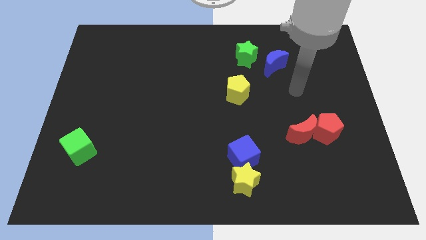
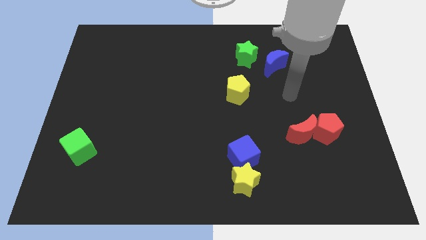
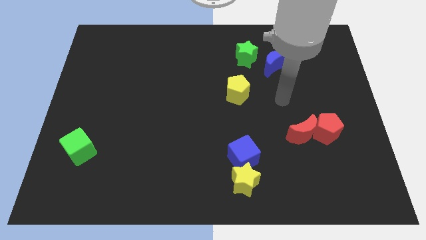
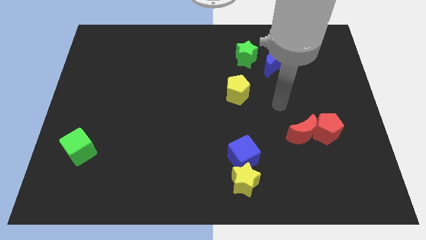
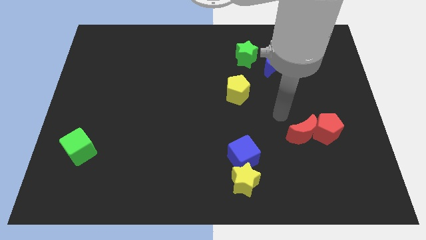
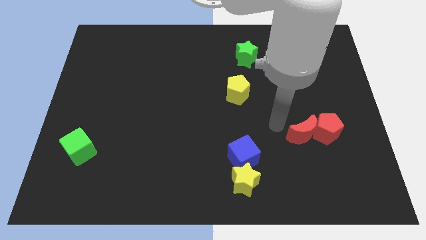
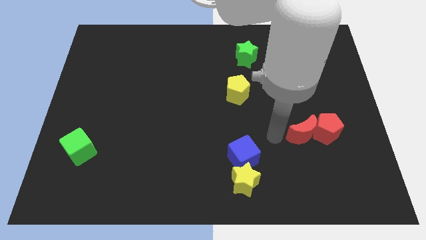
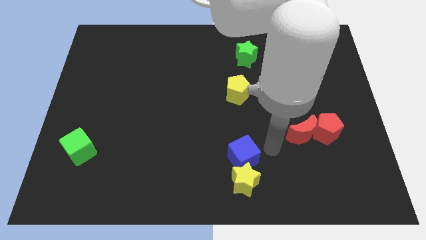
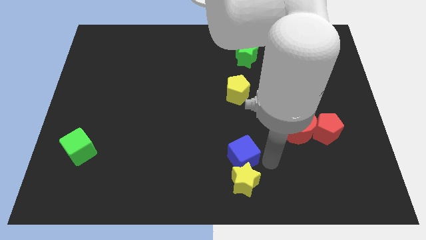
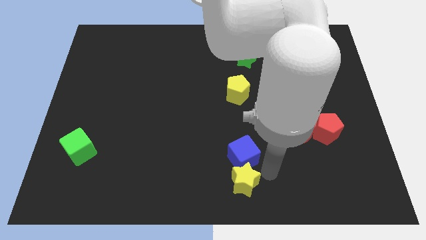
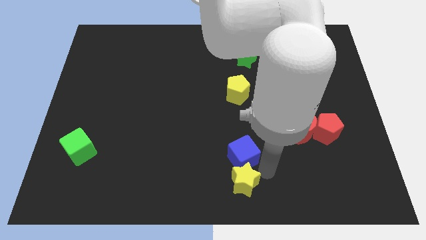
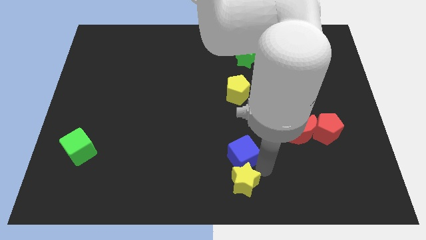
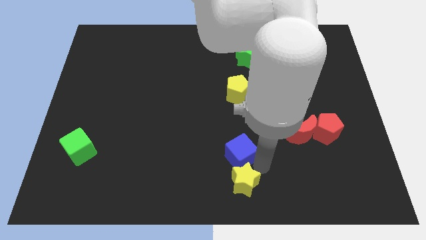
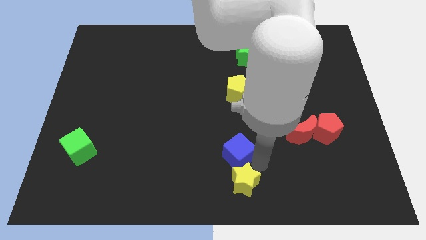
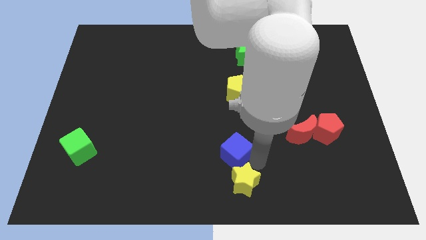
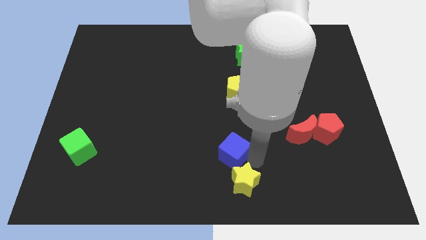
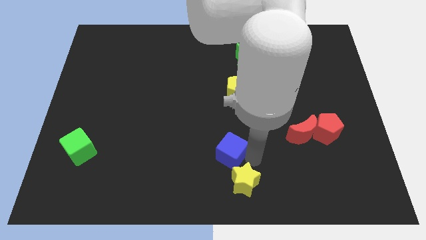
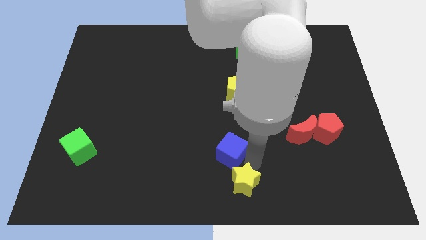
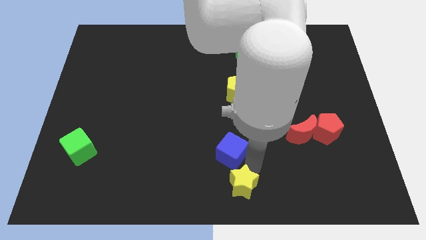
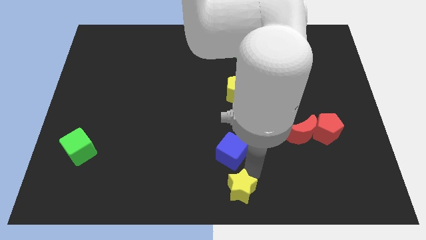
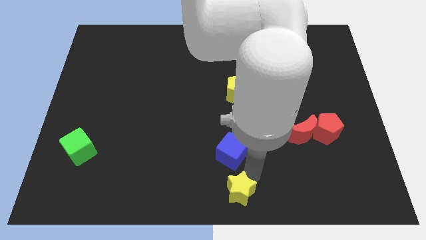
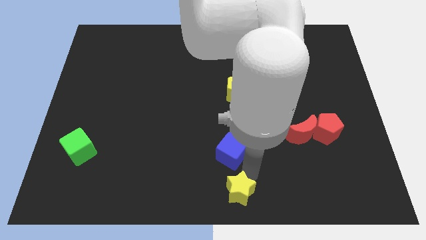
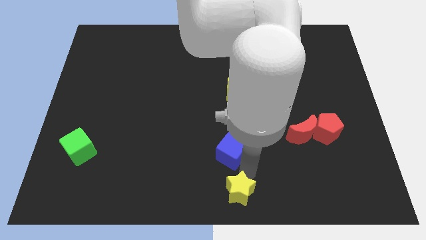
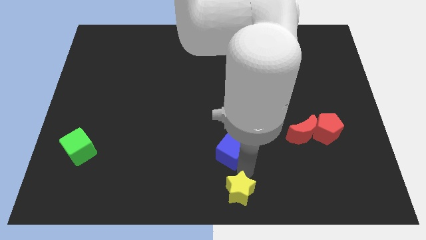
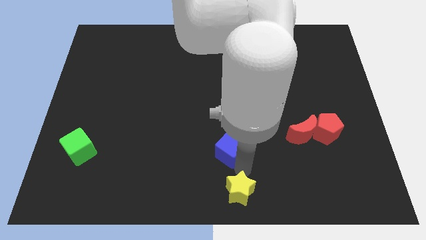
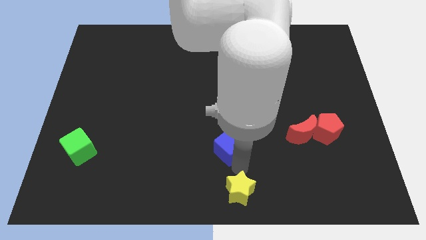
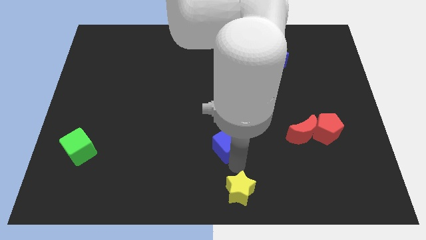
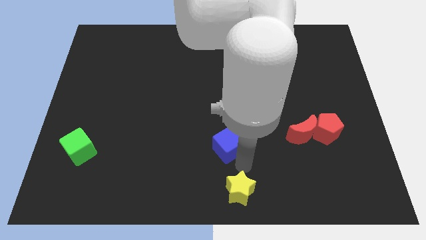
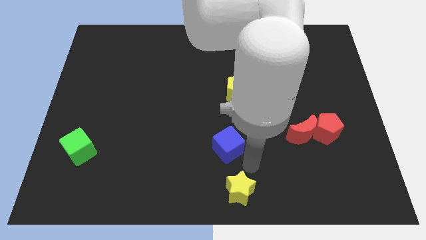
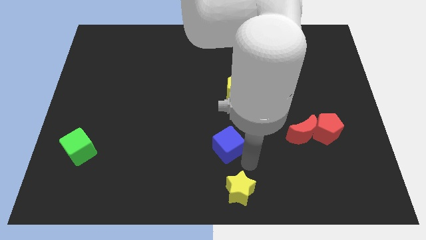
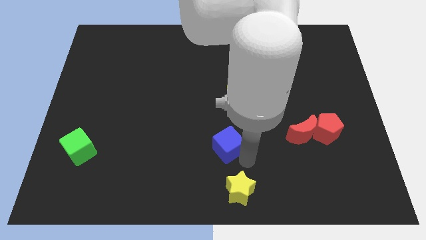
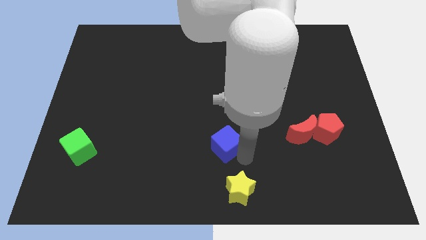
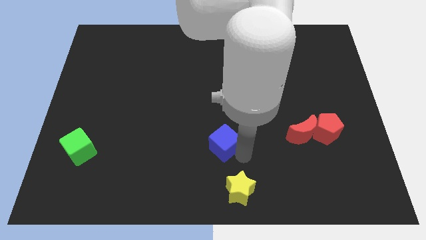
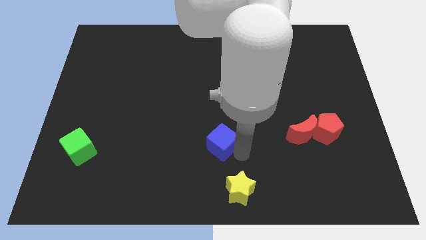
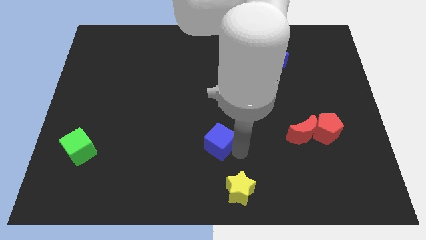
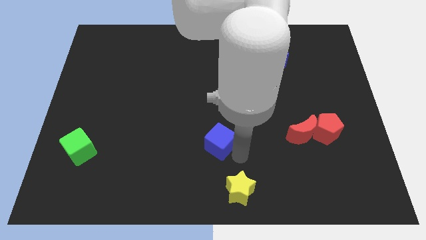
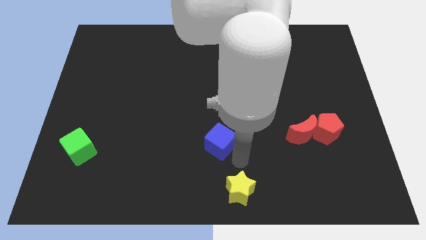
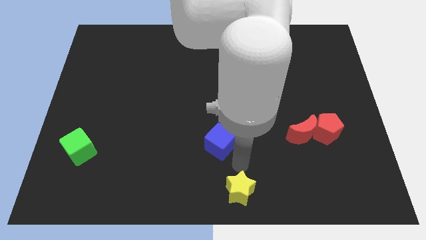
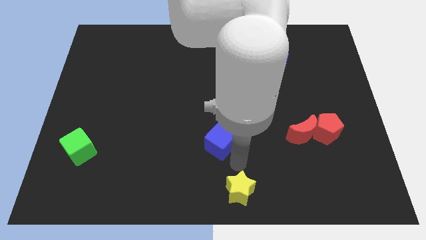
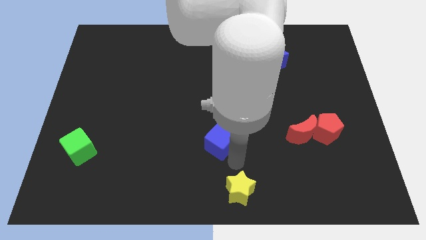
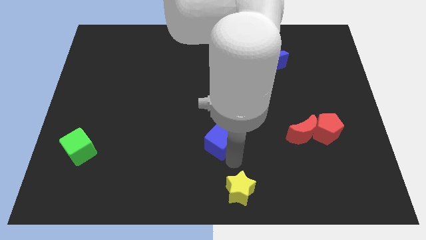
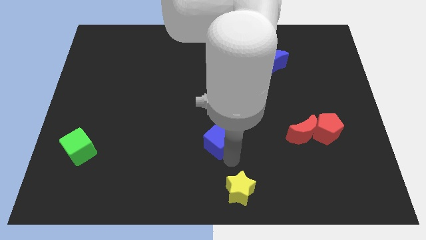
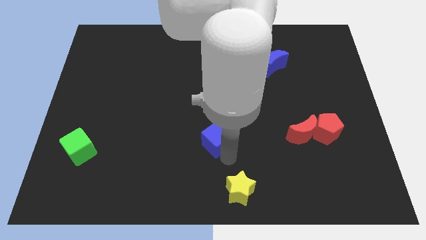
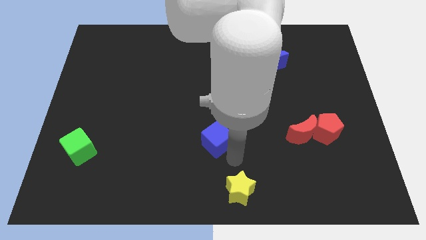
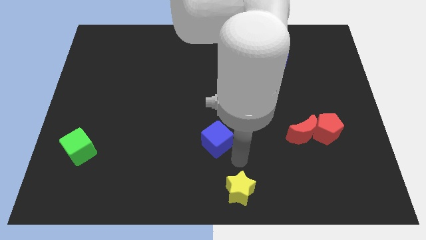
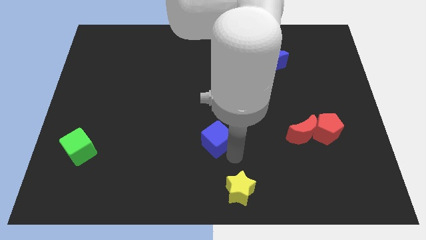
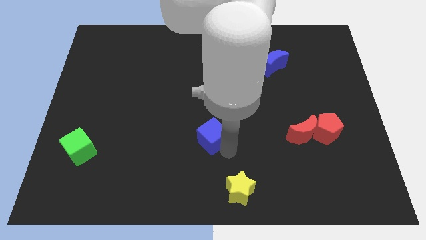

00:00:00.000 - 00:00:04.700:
slightly push the blue cube upwards and then to the left

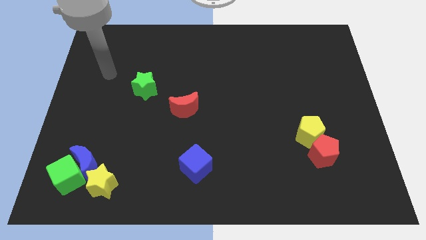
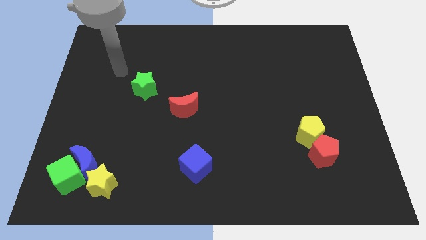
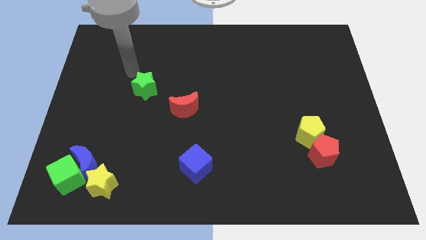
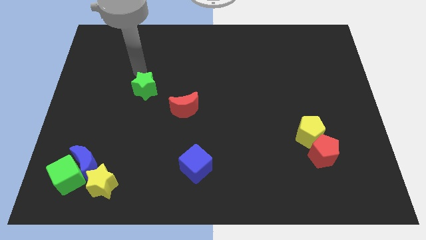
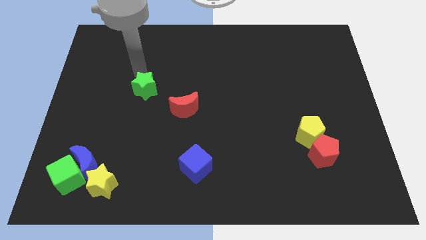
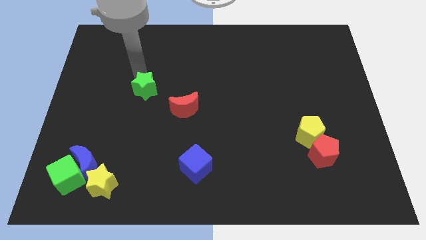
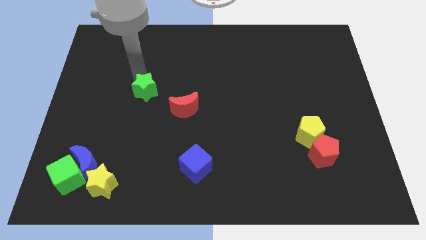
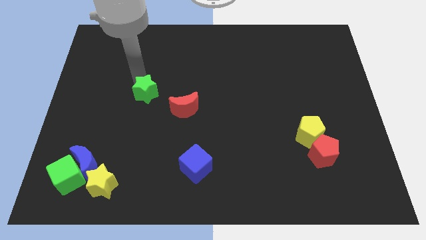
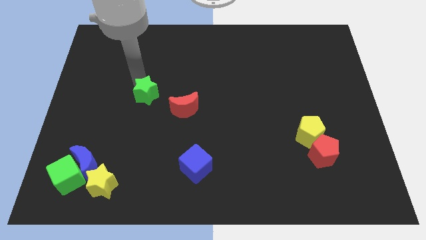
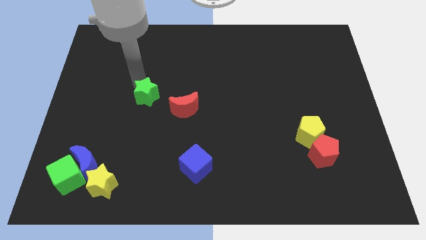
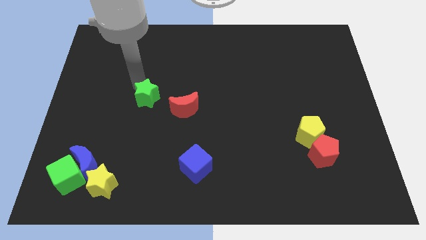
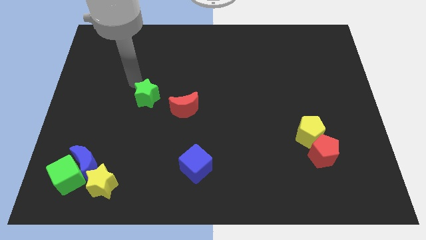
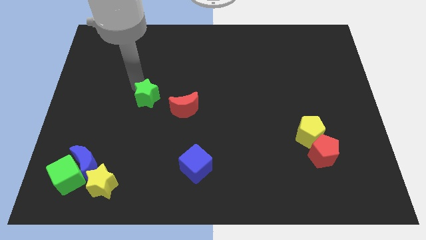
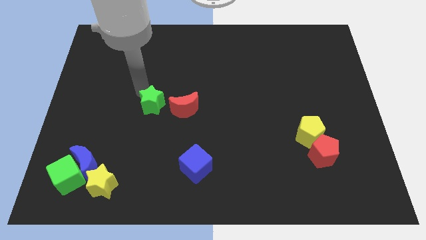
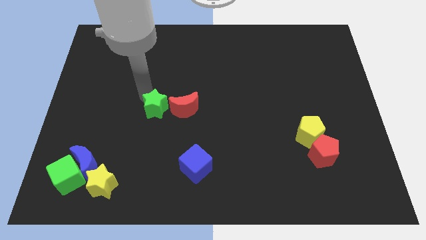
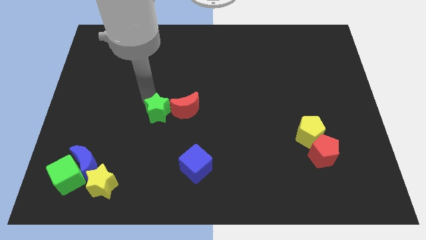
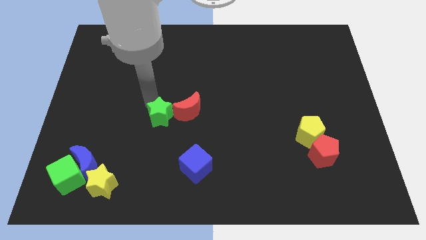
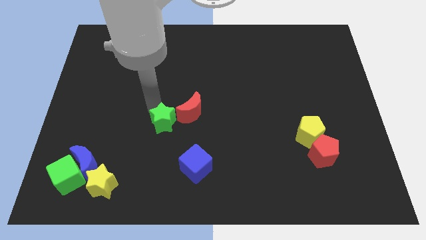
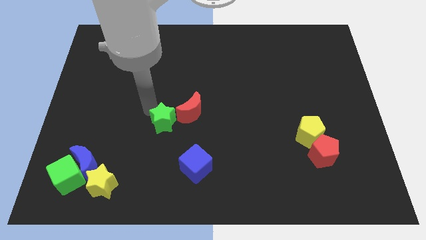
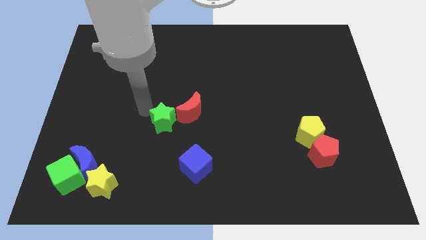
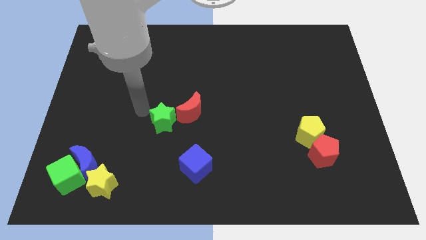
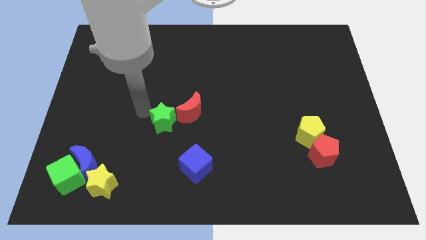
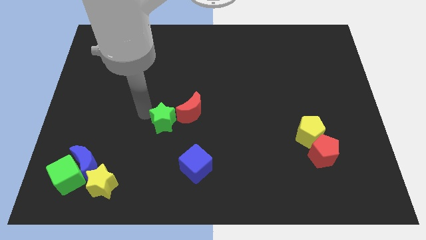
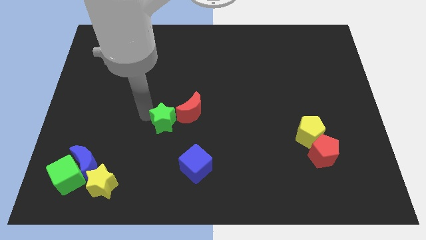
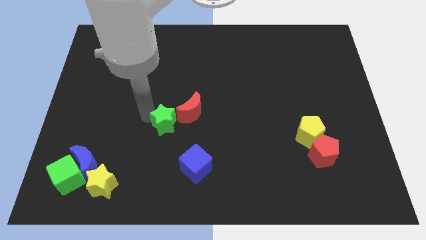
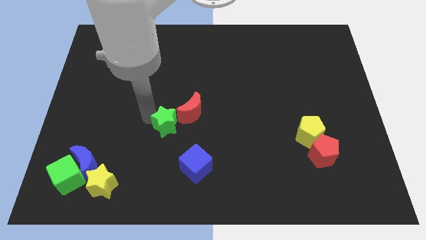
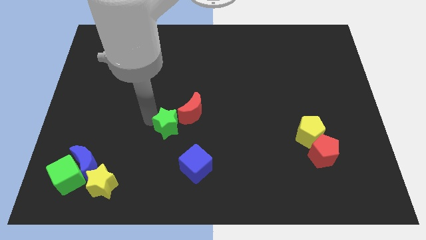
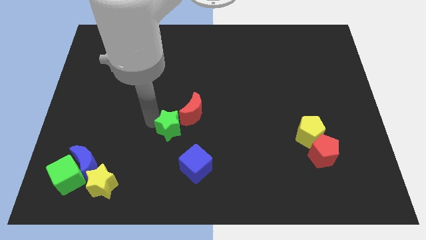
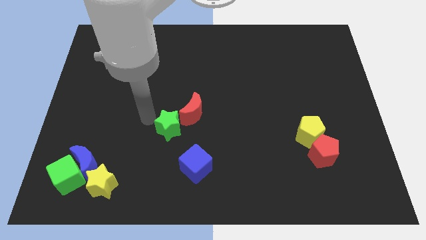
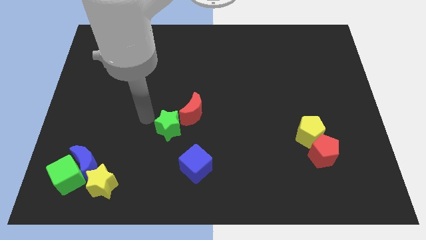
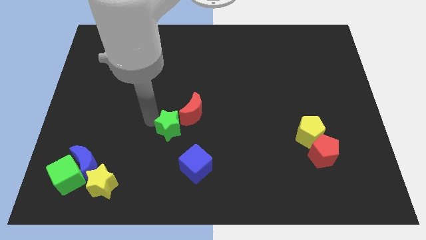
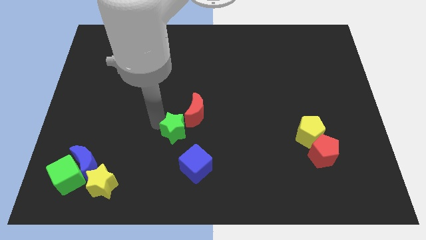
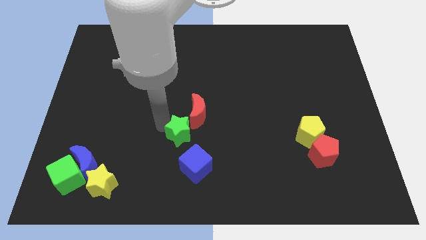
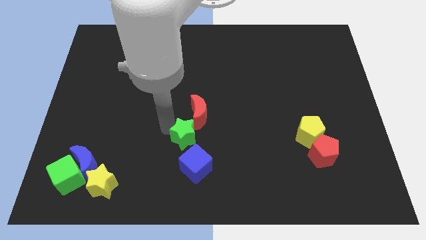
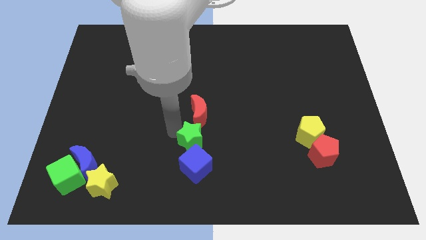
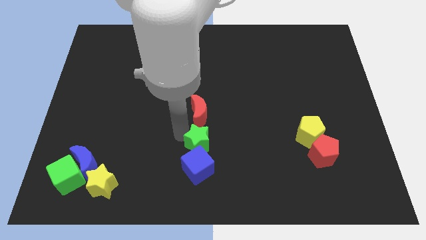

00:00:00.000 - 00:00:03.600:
move the green star diagonally down and to the right
